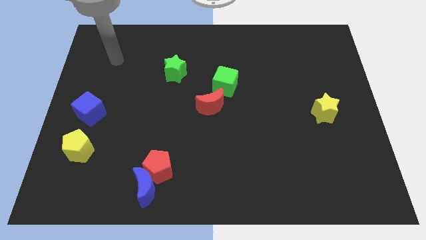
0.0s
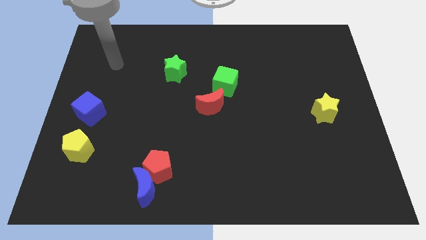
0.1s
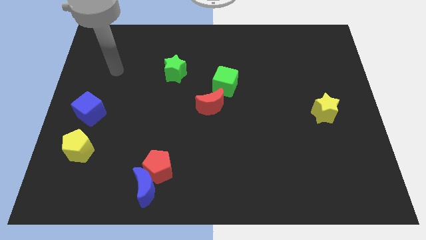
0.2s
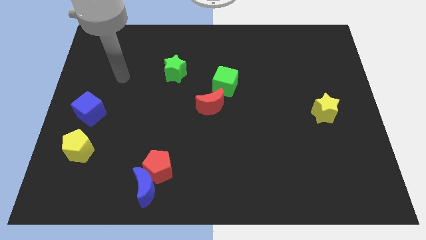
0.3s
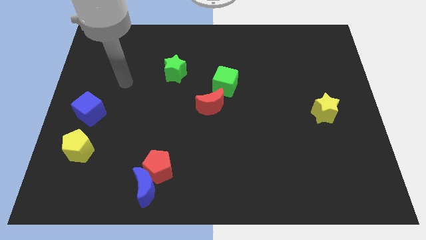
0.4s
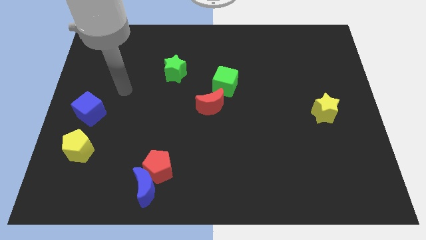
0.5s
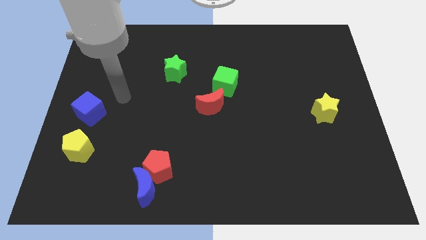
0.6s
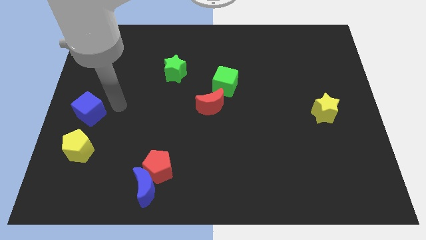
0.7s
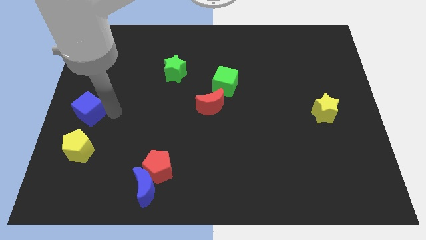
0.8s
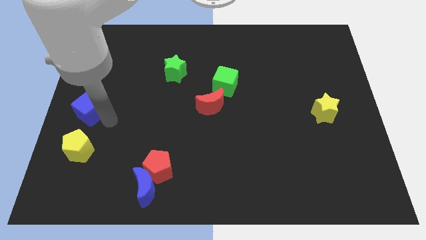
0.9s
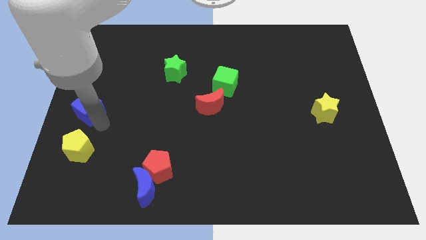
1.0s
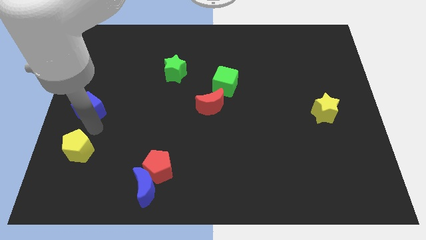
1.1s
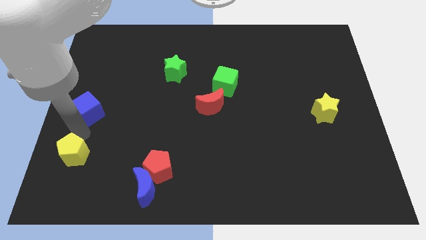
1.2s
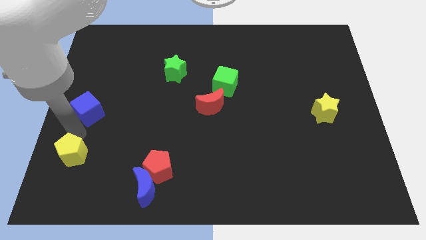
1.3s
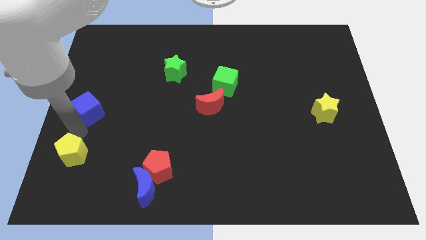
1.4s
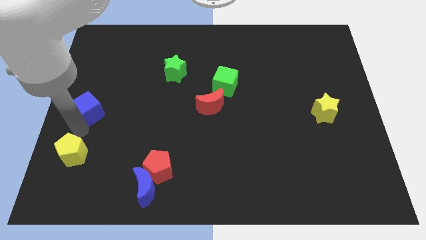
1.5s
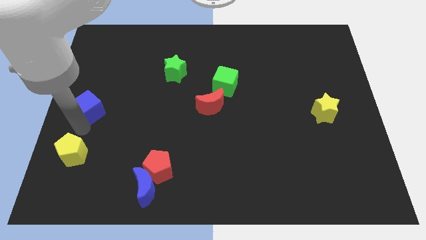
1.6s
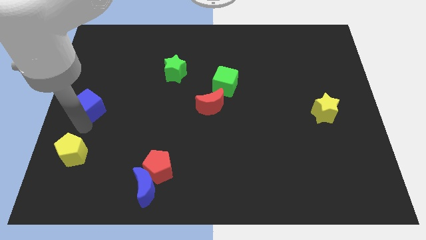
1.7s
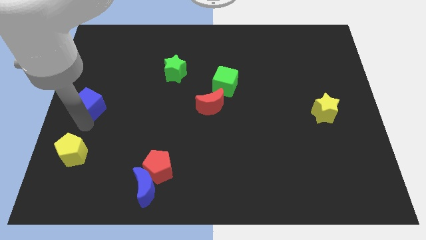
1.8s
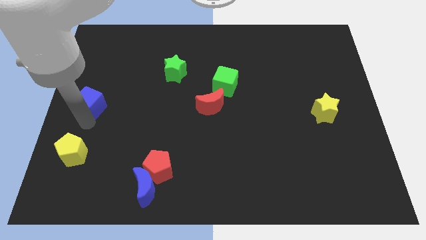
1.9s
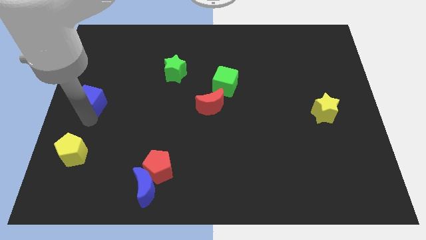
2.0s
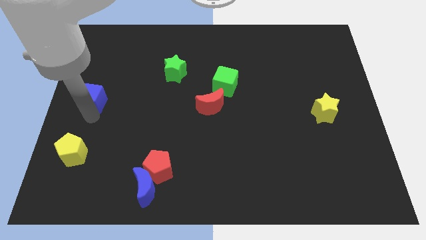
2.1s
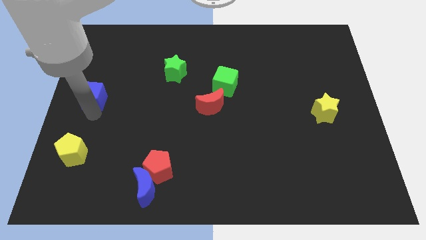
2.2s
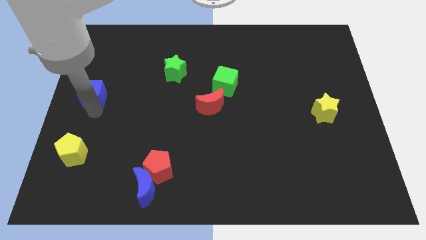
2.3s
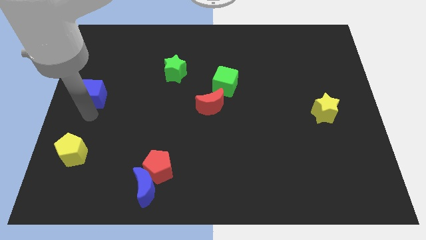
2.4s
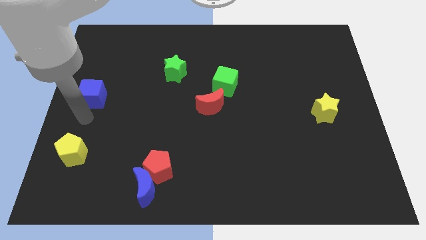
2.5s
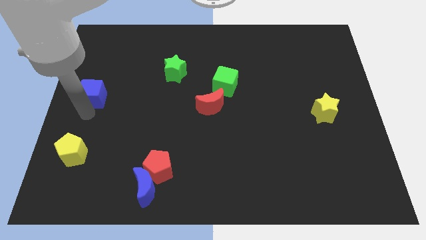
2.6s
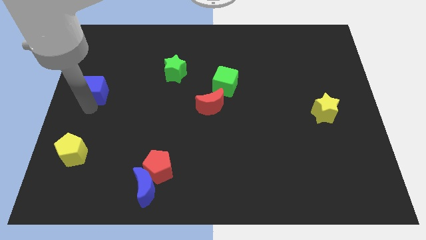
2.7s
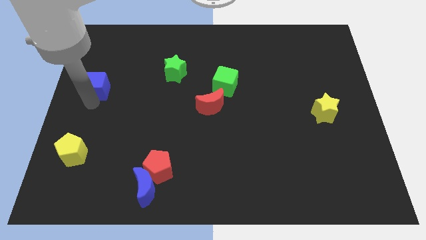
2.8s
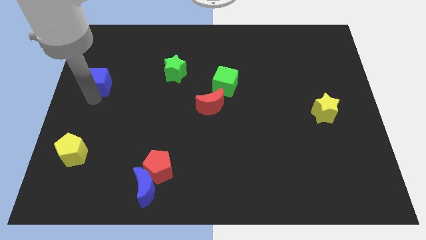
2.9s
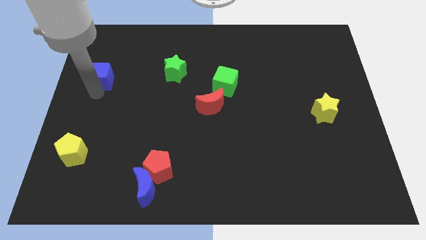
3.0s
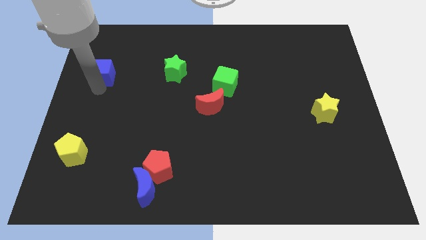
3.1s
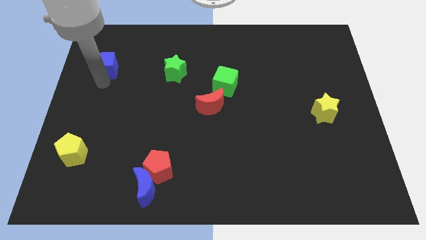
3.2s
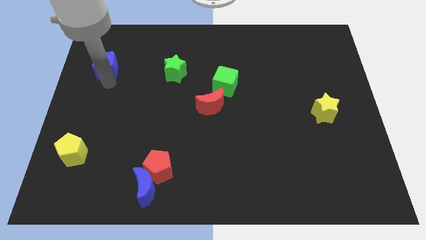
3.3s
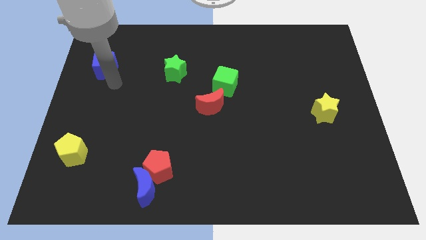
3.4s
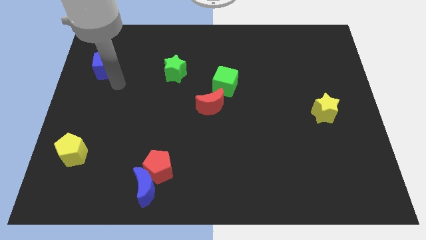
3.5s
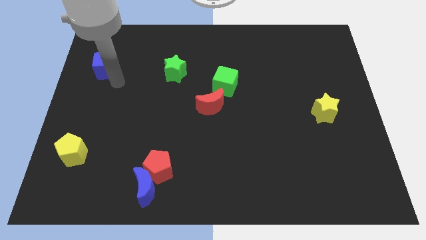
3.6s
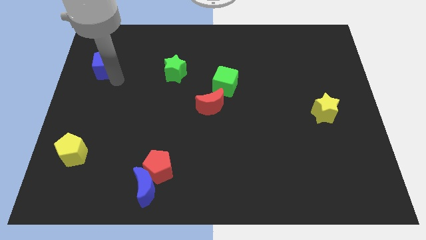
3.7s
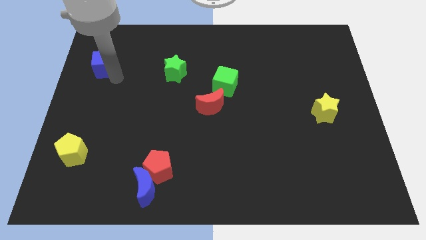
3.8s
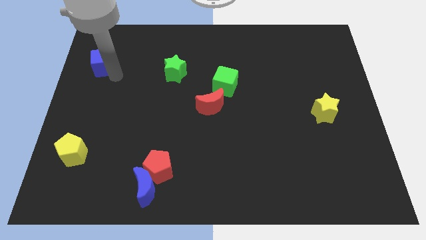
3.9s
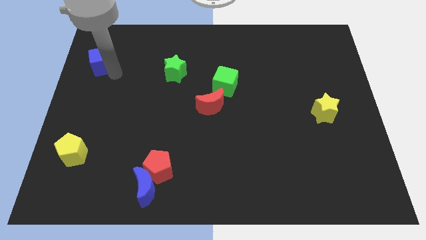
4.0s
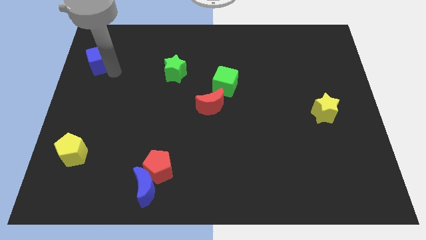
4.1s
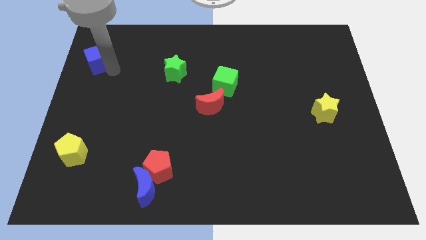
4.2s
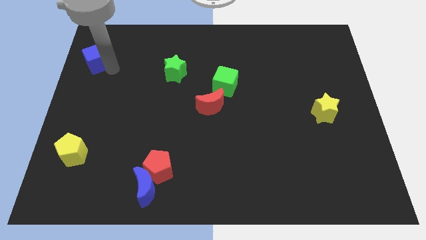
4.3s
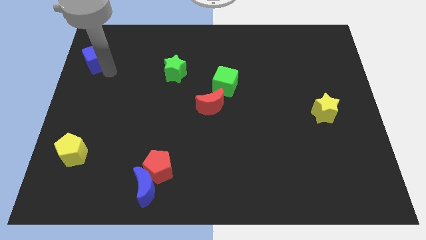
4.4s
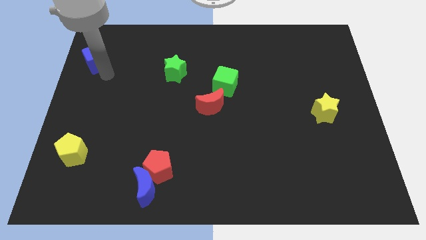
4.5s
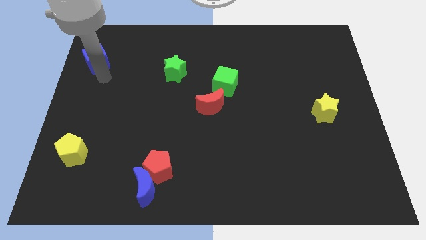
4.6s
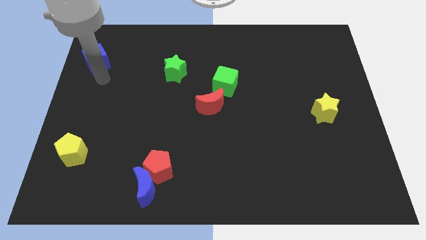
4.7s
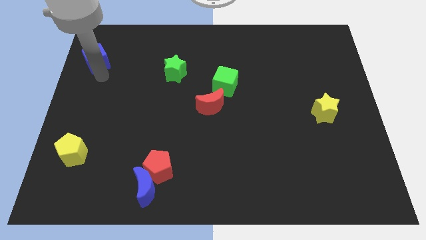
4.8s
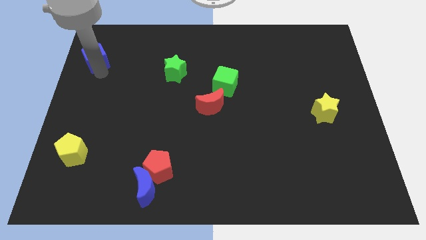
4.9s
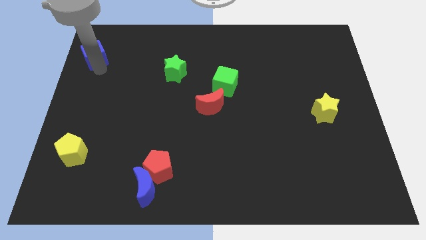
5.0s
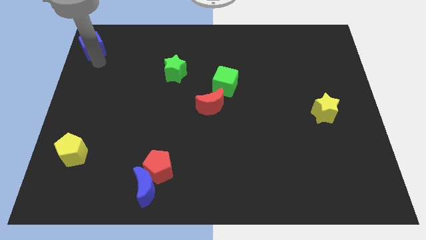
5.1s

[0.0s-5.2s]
push the blue cube to the top left corner

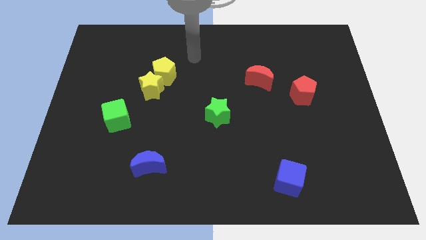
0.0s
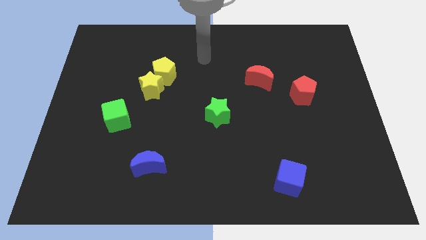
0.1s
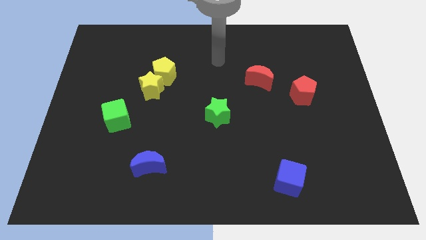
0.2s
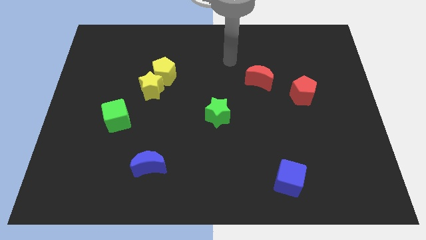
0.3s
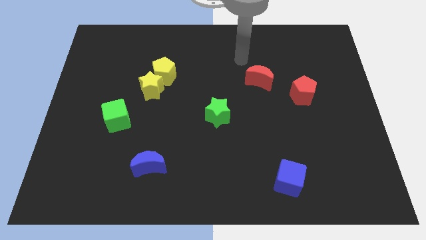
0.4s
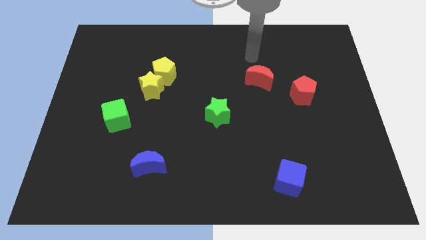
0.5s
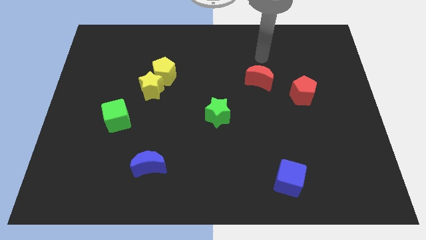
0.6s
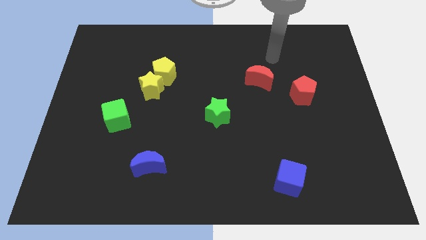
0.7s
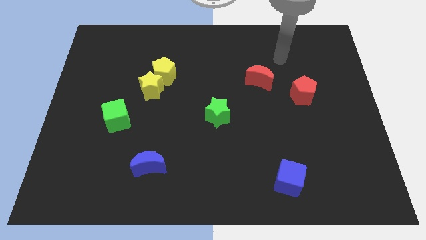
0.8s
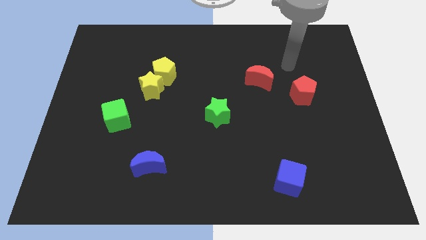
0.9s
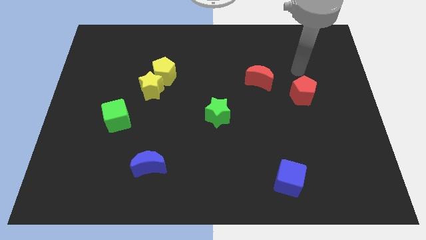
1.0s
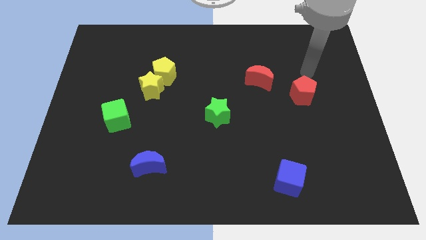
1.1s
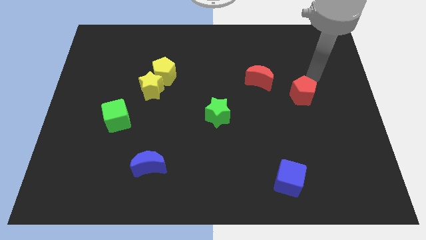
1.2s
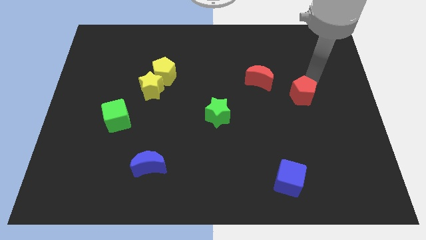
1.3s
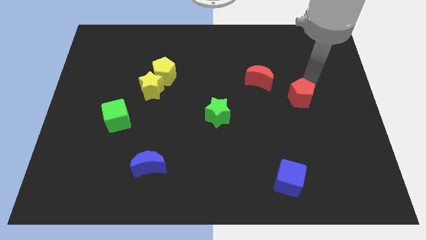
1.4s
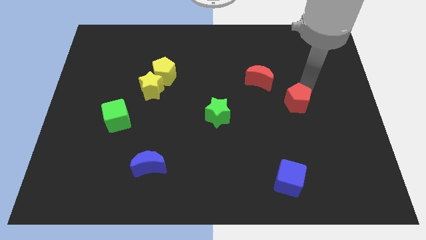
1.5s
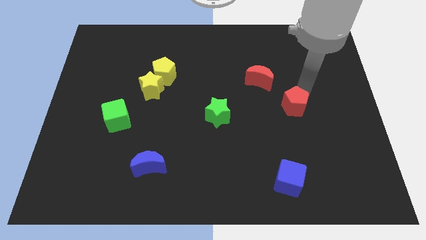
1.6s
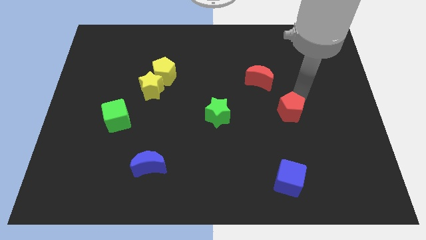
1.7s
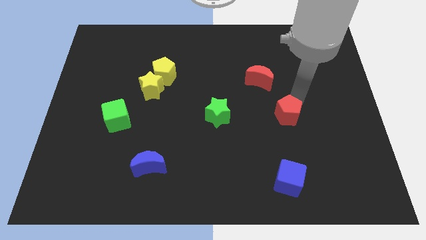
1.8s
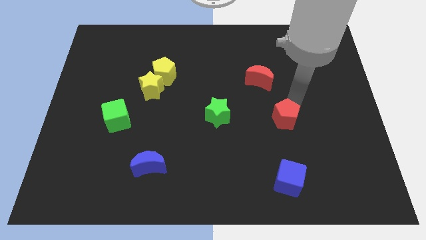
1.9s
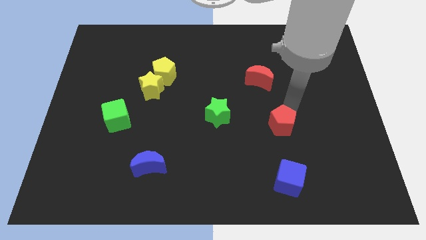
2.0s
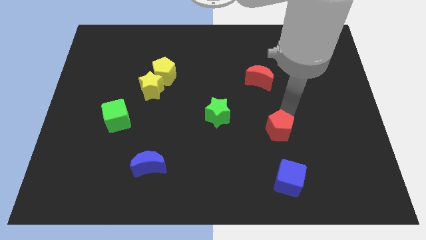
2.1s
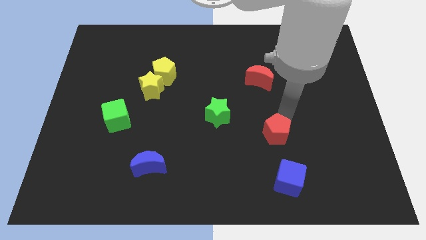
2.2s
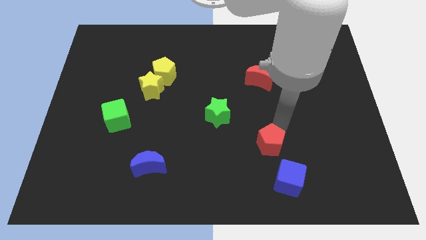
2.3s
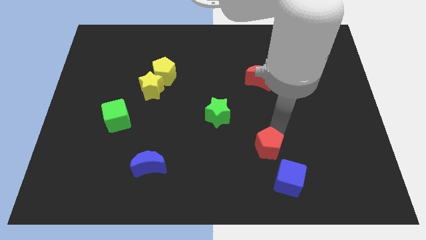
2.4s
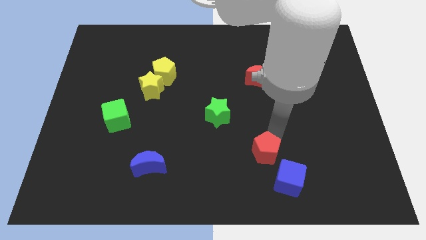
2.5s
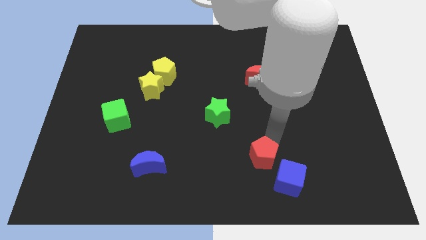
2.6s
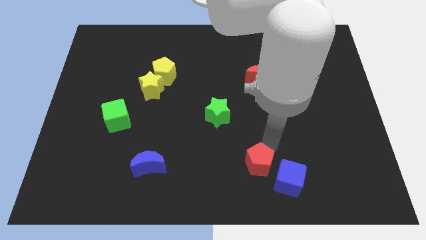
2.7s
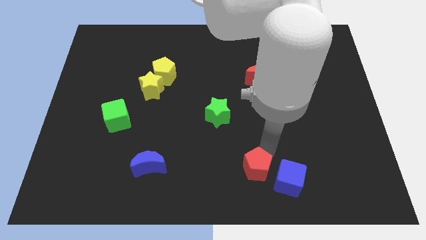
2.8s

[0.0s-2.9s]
move the red pentagon to the bottom side
